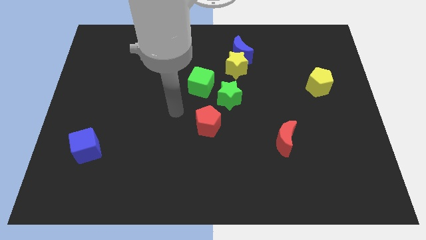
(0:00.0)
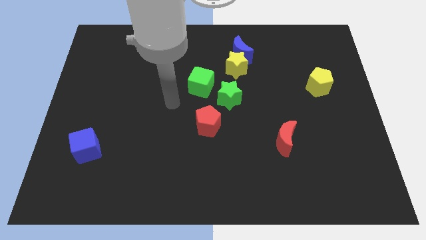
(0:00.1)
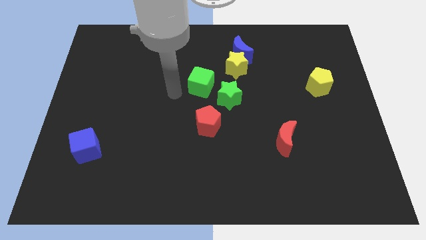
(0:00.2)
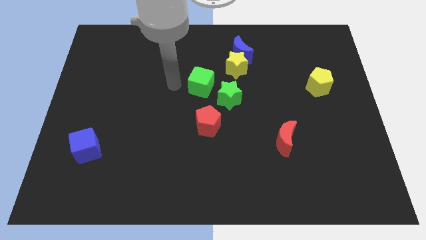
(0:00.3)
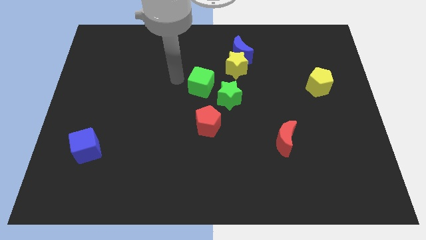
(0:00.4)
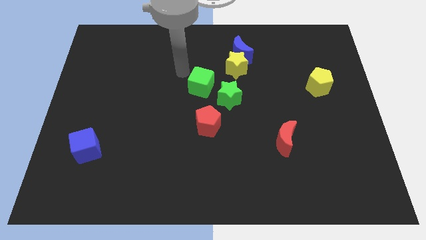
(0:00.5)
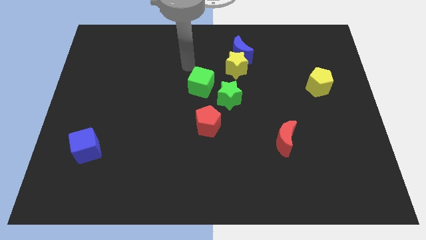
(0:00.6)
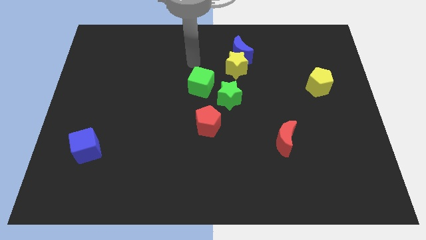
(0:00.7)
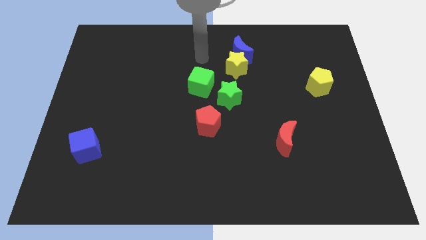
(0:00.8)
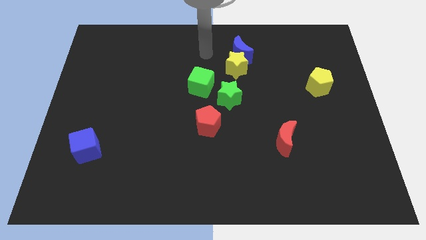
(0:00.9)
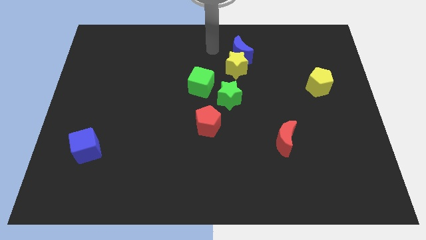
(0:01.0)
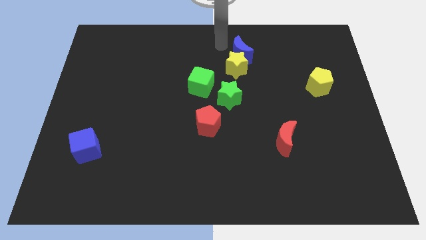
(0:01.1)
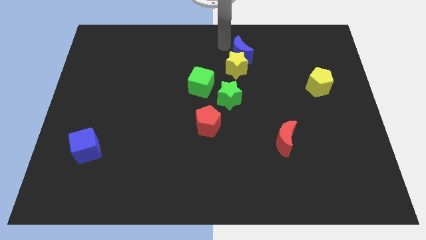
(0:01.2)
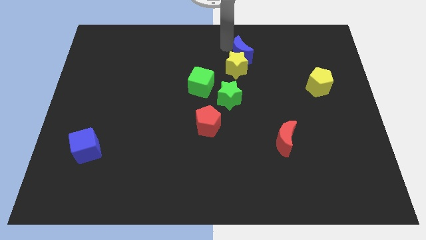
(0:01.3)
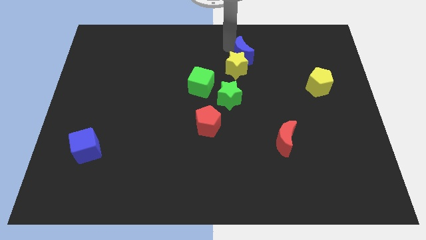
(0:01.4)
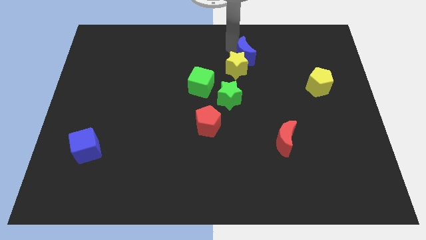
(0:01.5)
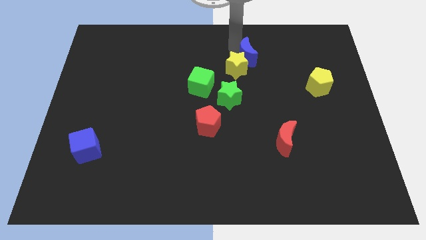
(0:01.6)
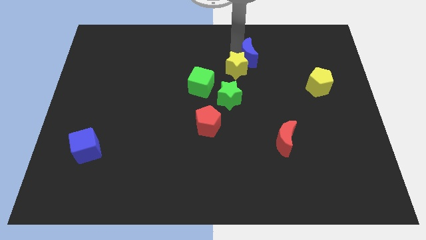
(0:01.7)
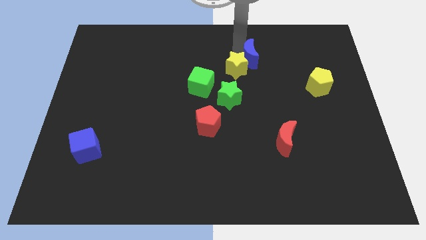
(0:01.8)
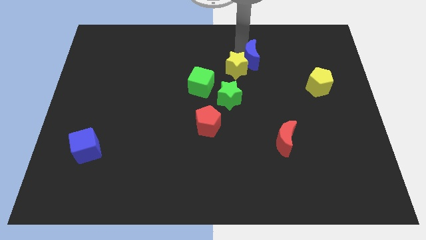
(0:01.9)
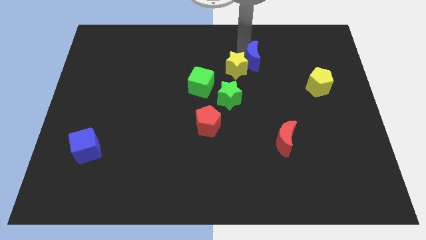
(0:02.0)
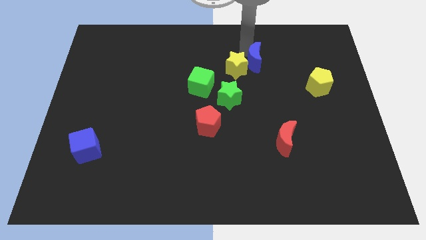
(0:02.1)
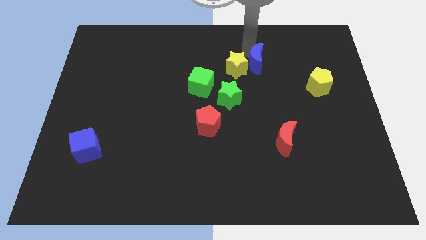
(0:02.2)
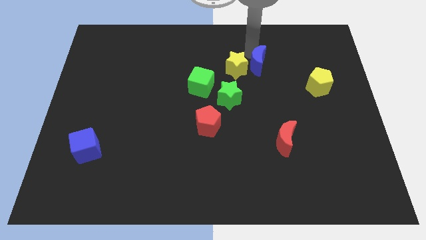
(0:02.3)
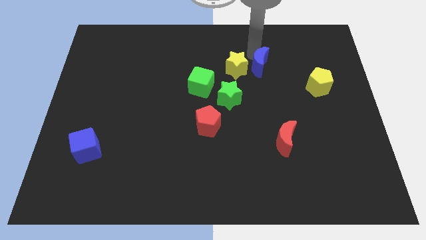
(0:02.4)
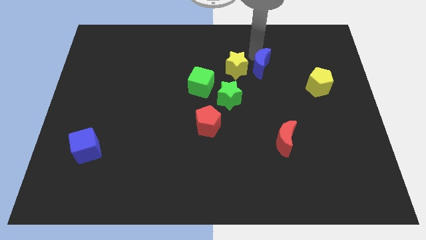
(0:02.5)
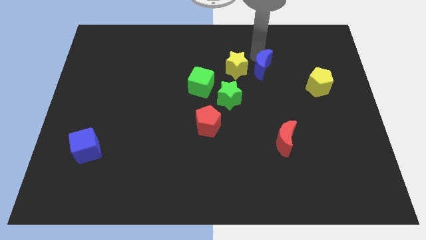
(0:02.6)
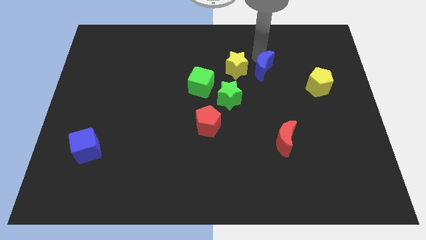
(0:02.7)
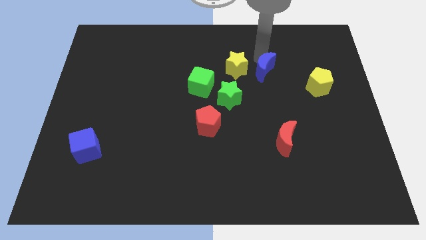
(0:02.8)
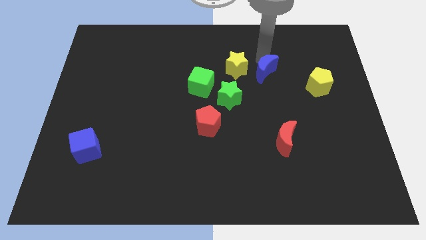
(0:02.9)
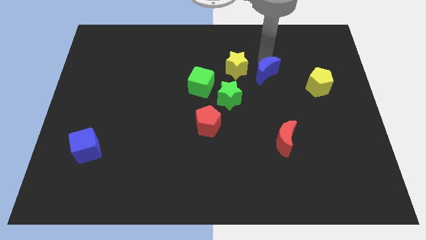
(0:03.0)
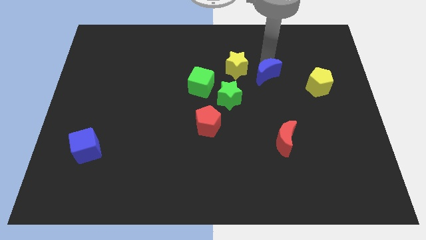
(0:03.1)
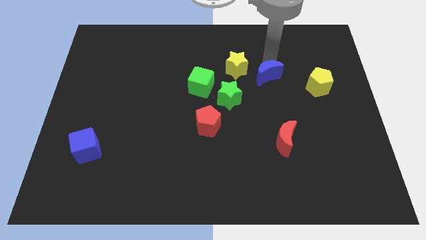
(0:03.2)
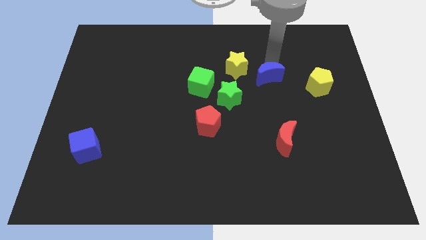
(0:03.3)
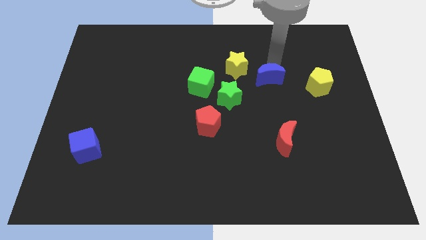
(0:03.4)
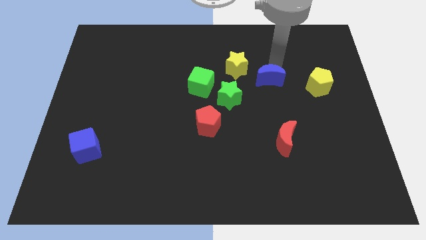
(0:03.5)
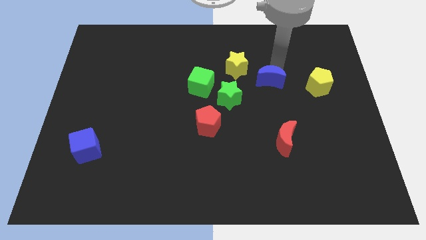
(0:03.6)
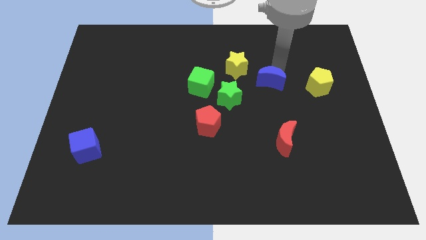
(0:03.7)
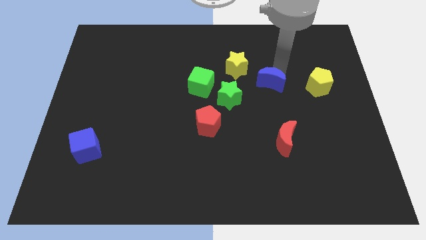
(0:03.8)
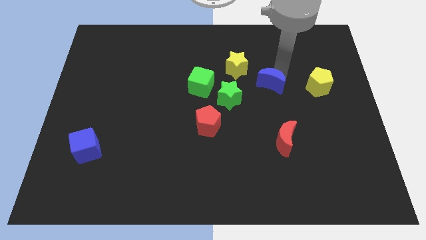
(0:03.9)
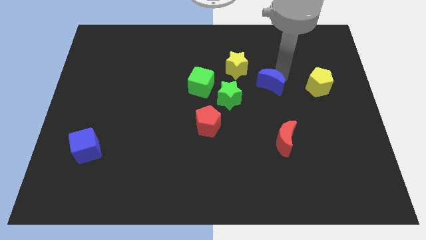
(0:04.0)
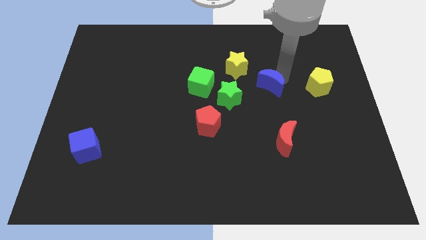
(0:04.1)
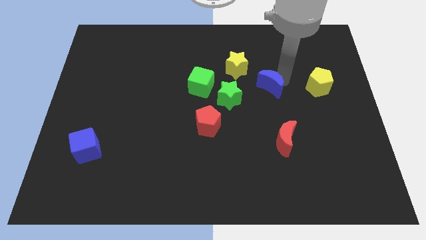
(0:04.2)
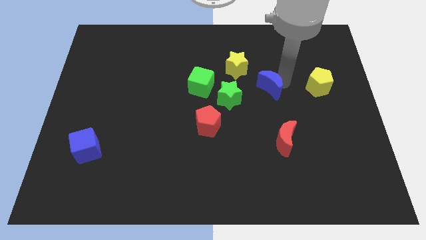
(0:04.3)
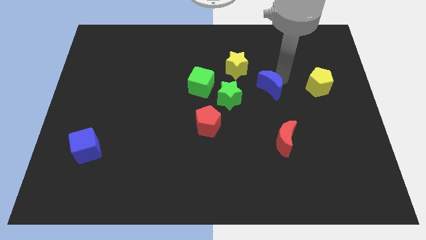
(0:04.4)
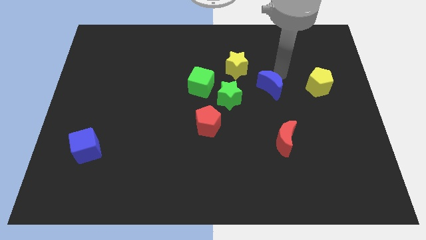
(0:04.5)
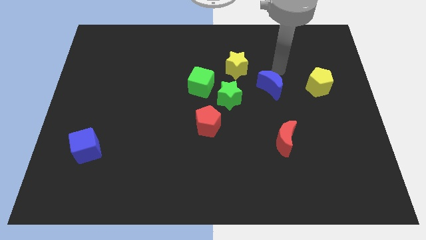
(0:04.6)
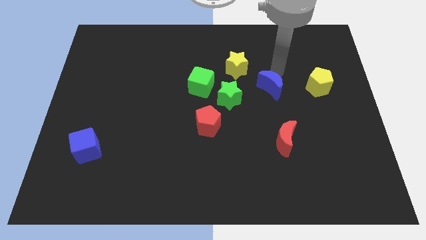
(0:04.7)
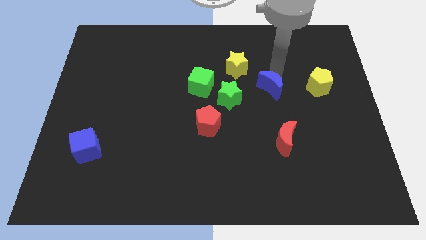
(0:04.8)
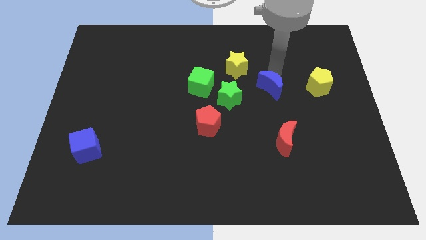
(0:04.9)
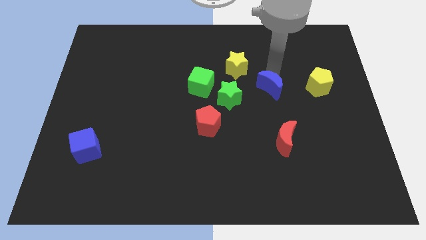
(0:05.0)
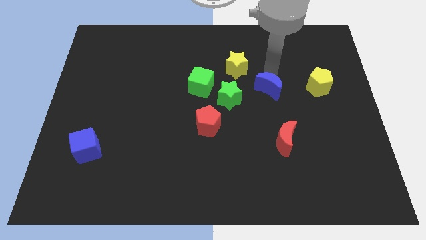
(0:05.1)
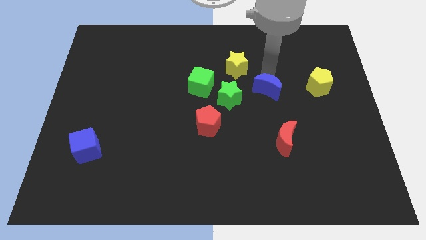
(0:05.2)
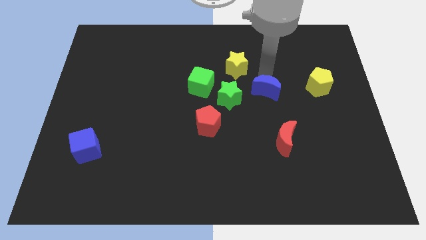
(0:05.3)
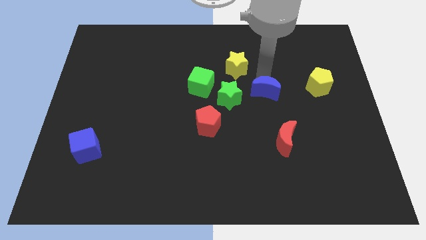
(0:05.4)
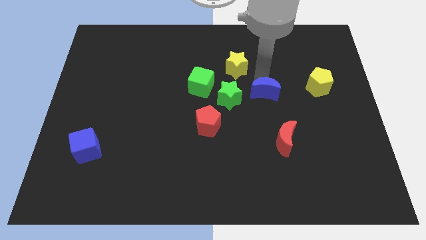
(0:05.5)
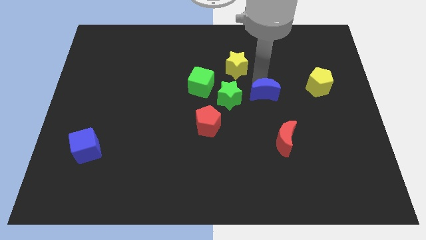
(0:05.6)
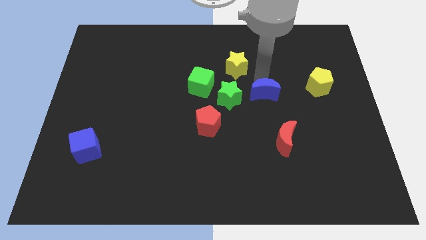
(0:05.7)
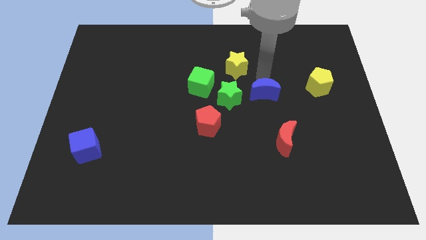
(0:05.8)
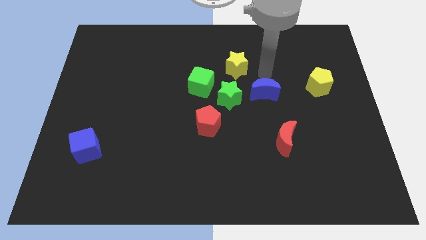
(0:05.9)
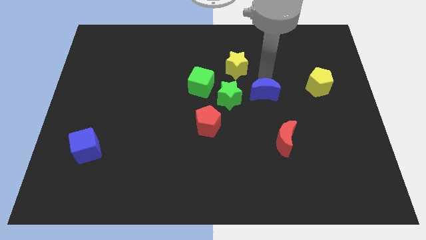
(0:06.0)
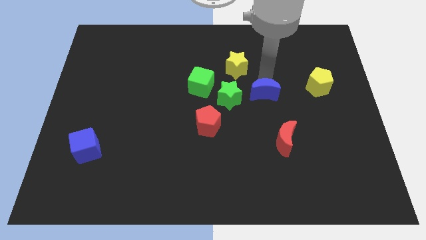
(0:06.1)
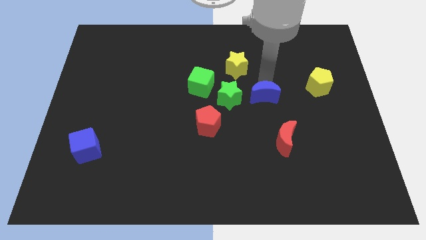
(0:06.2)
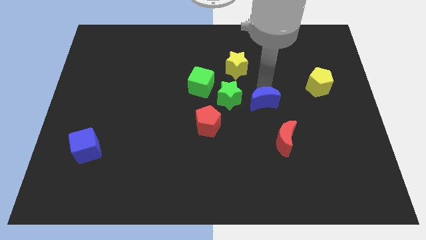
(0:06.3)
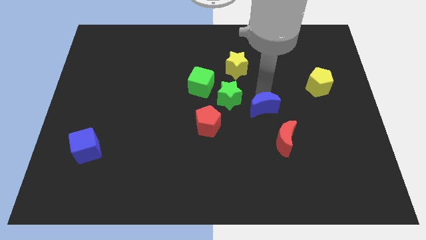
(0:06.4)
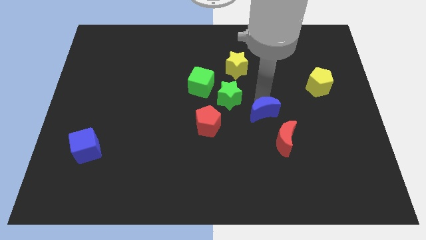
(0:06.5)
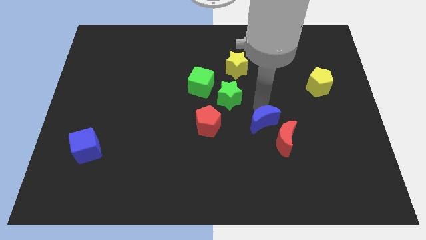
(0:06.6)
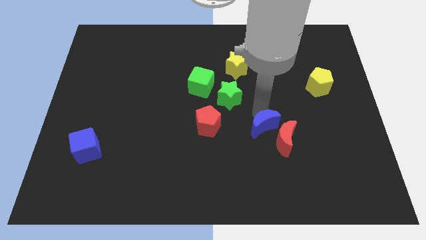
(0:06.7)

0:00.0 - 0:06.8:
put the blue moon to the red moon
